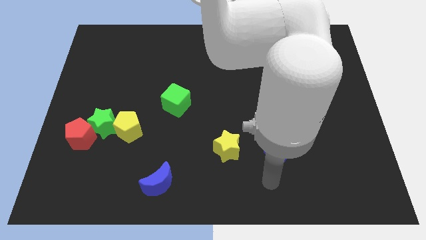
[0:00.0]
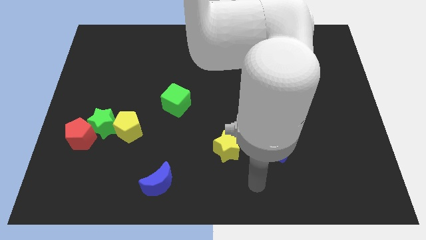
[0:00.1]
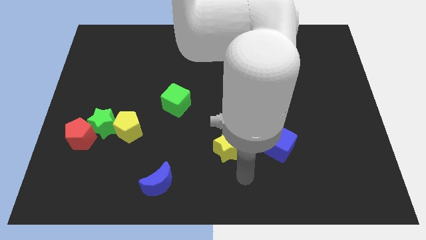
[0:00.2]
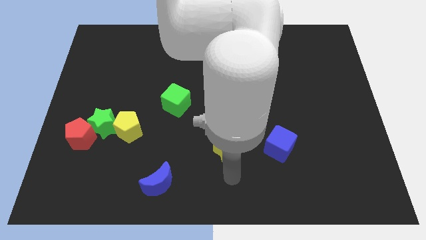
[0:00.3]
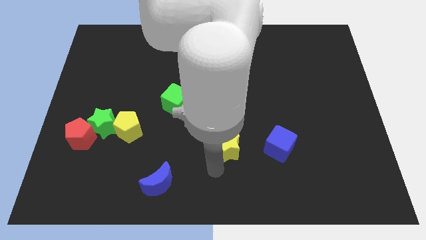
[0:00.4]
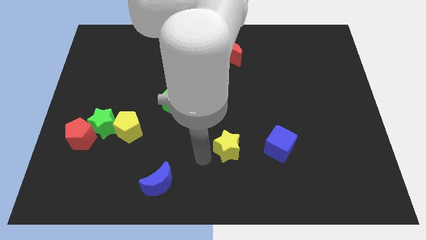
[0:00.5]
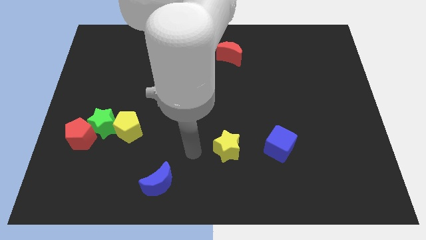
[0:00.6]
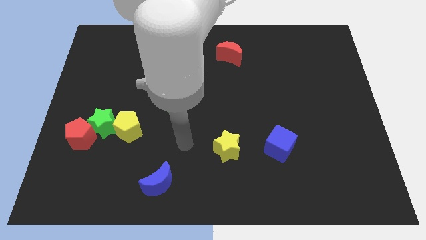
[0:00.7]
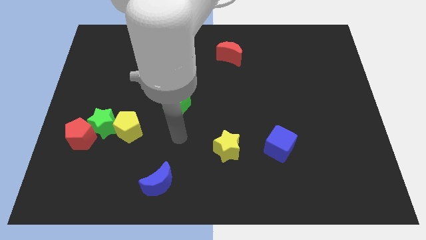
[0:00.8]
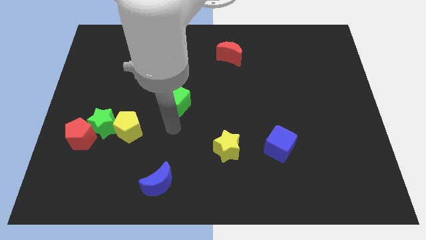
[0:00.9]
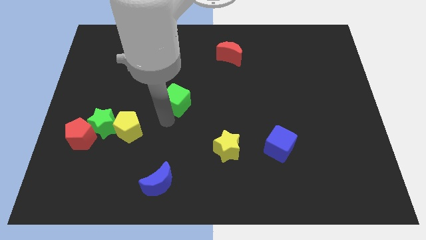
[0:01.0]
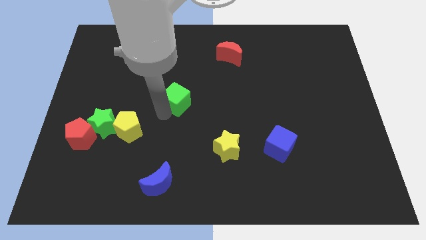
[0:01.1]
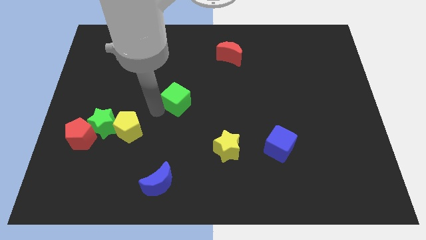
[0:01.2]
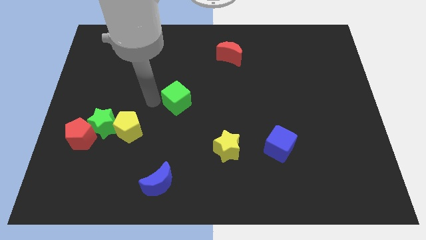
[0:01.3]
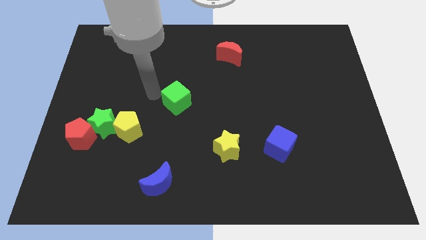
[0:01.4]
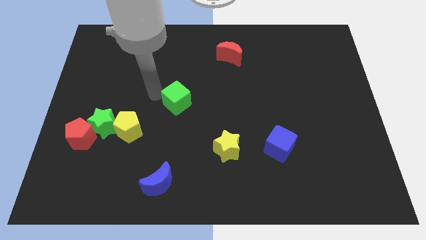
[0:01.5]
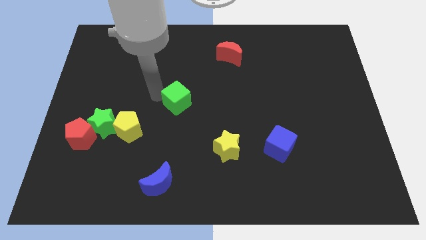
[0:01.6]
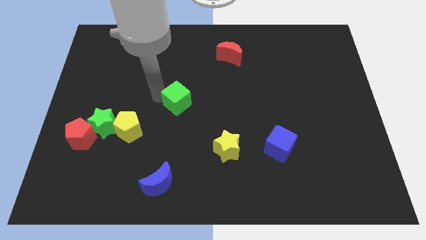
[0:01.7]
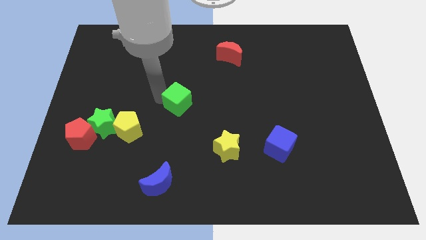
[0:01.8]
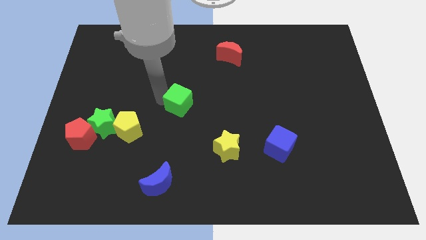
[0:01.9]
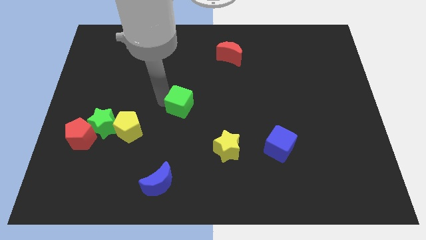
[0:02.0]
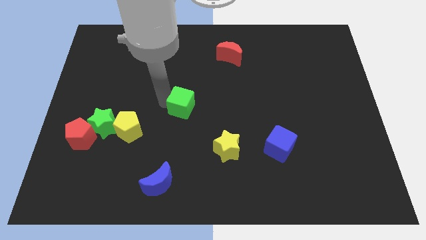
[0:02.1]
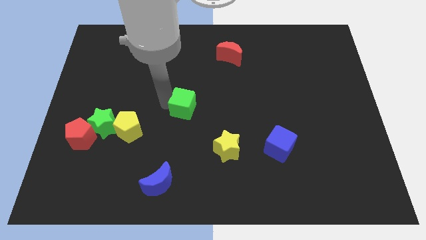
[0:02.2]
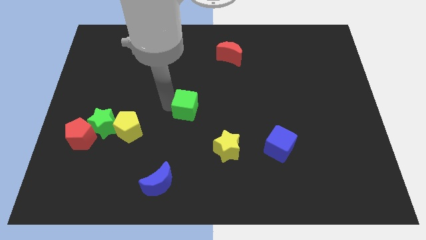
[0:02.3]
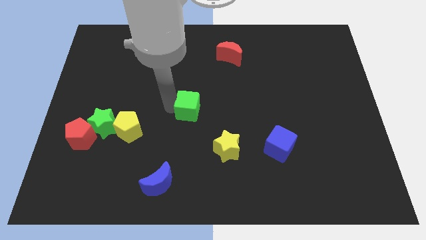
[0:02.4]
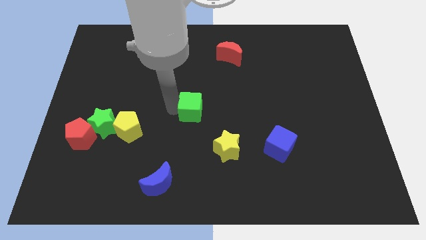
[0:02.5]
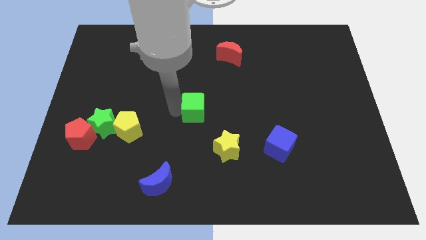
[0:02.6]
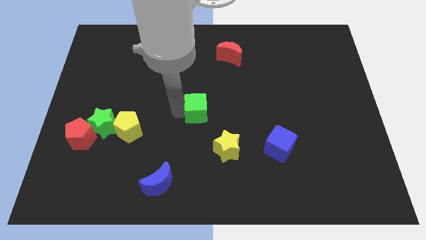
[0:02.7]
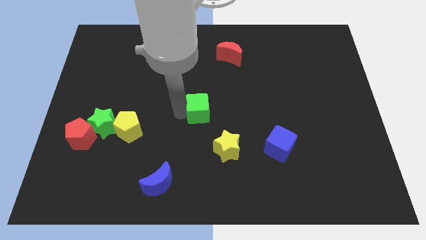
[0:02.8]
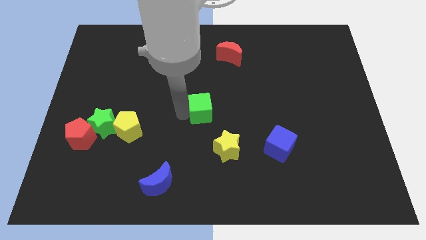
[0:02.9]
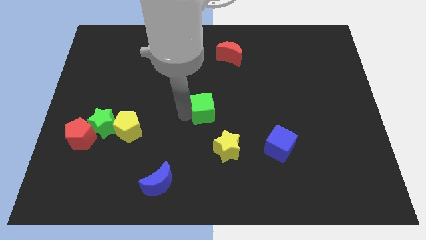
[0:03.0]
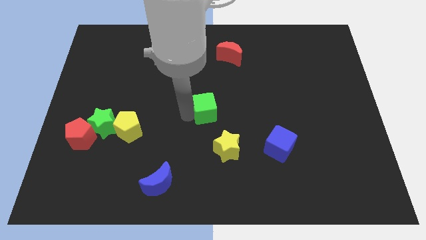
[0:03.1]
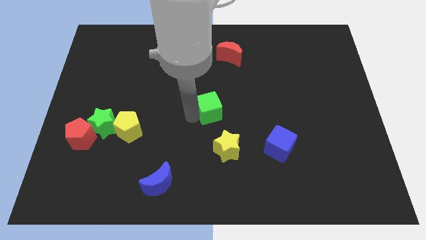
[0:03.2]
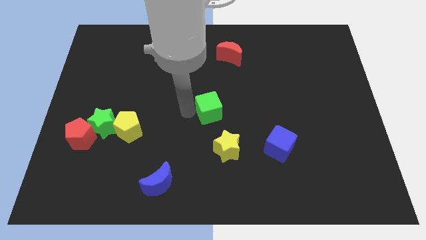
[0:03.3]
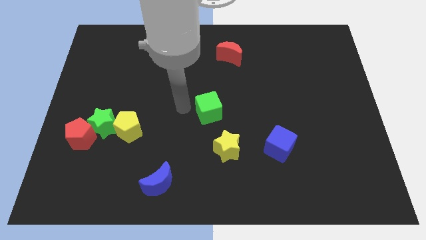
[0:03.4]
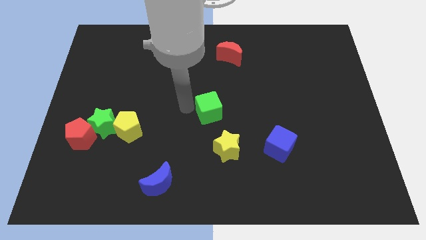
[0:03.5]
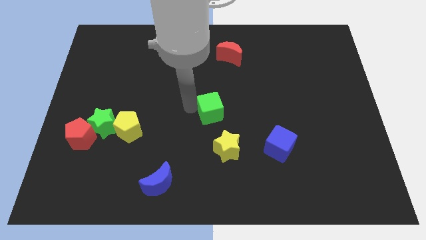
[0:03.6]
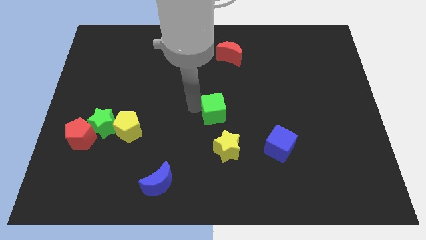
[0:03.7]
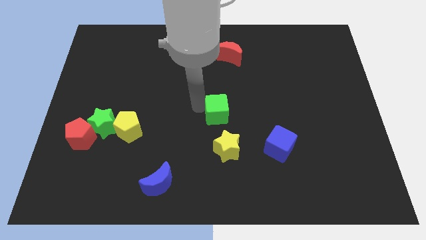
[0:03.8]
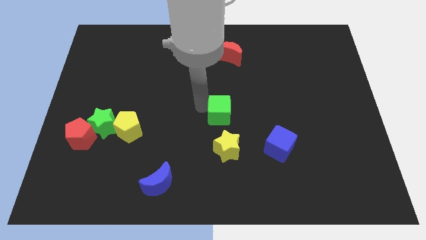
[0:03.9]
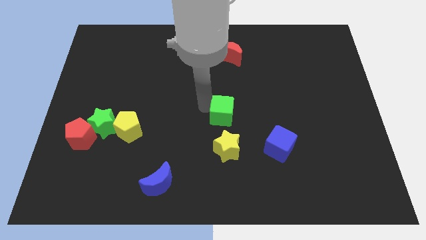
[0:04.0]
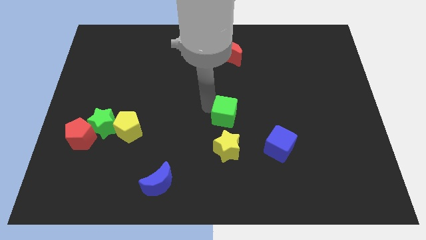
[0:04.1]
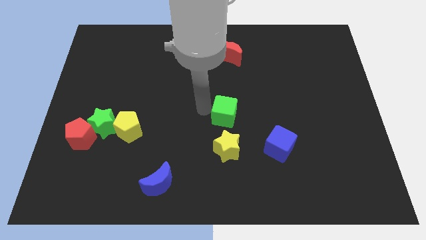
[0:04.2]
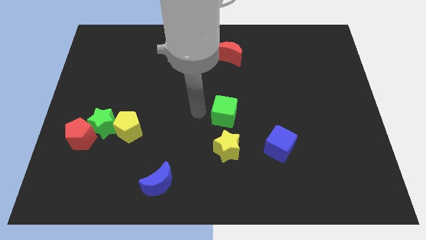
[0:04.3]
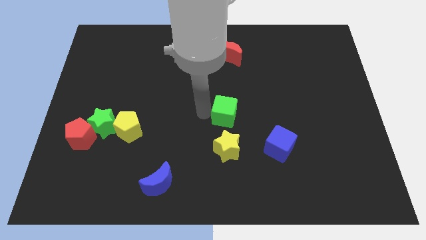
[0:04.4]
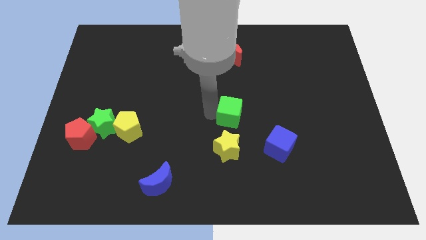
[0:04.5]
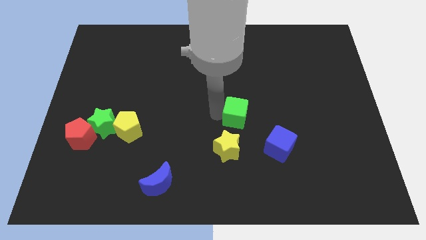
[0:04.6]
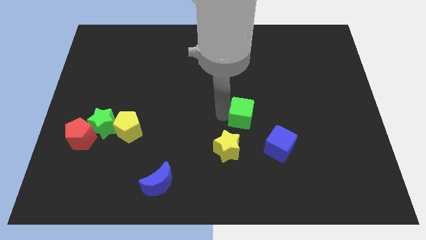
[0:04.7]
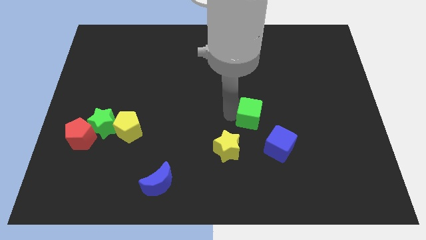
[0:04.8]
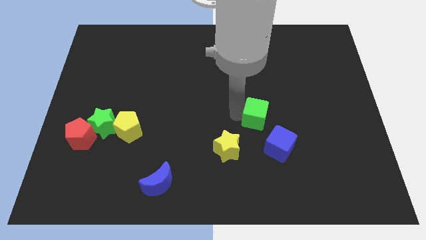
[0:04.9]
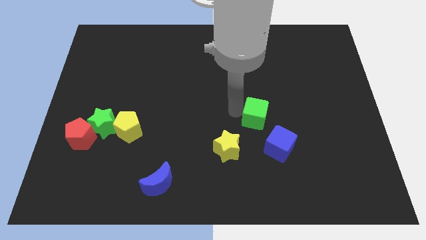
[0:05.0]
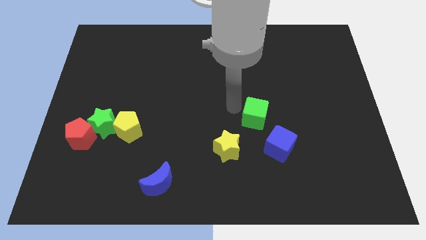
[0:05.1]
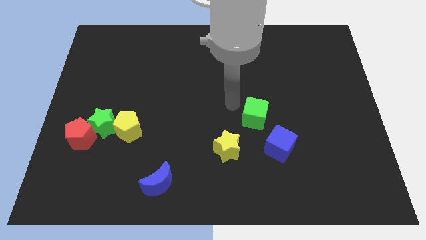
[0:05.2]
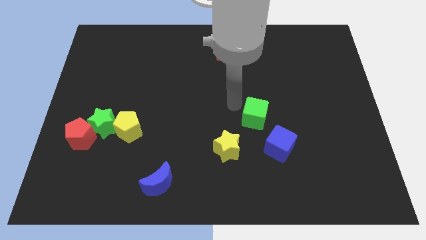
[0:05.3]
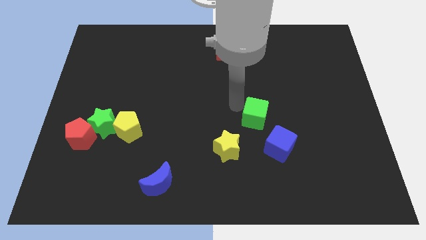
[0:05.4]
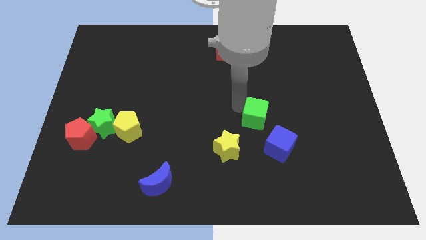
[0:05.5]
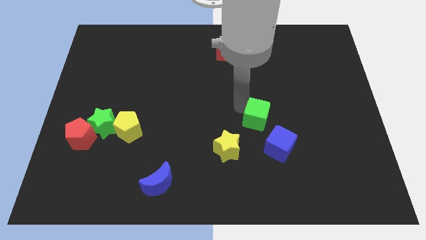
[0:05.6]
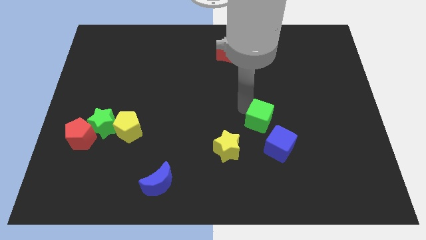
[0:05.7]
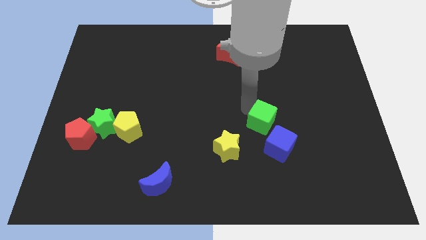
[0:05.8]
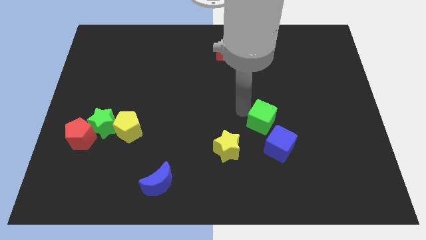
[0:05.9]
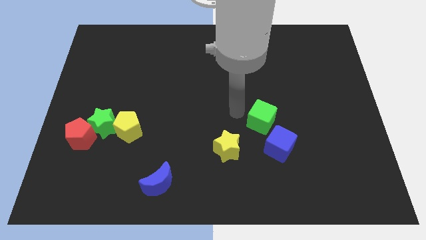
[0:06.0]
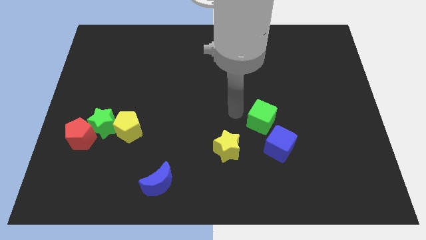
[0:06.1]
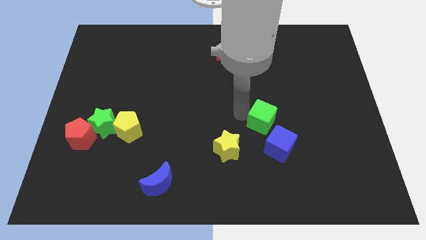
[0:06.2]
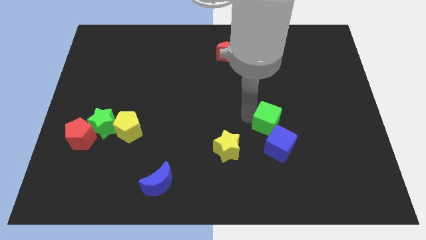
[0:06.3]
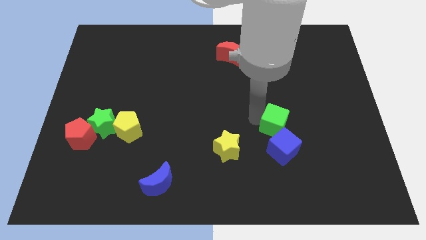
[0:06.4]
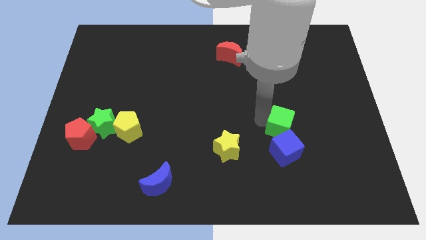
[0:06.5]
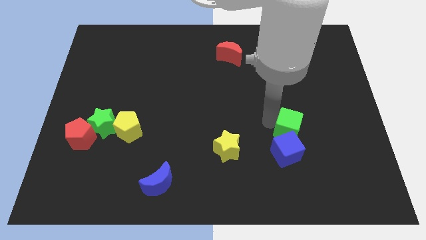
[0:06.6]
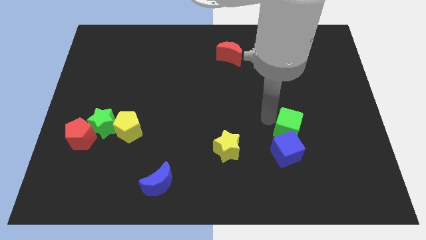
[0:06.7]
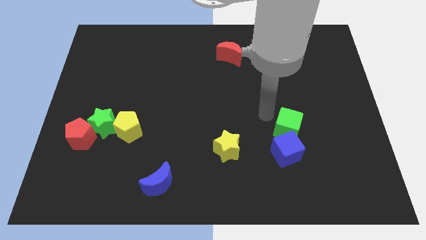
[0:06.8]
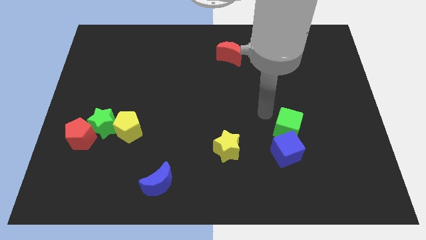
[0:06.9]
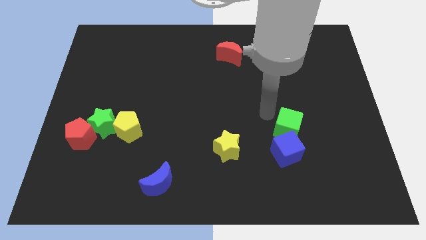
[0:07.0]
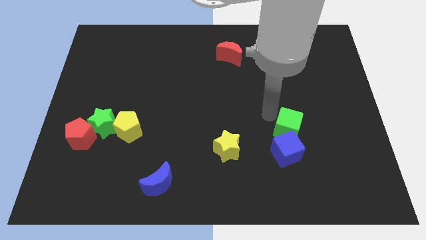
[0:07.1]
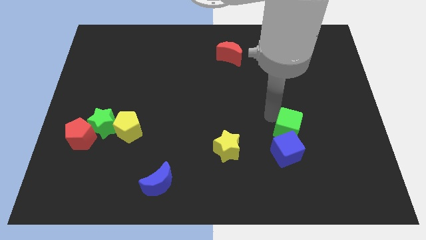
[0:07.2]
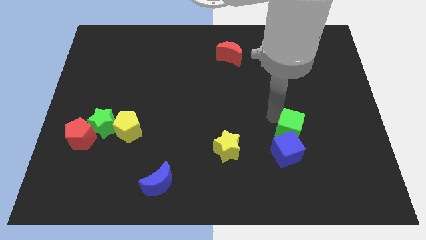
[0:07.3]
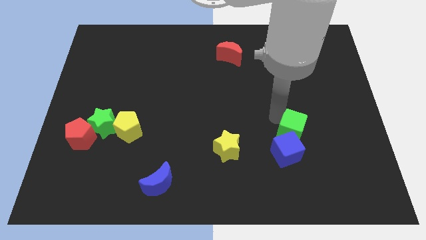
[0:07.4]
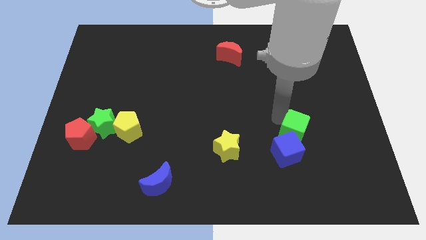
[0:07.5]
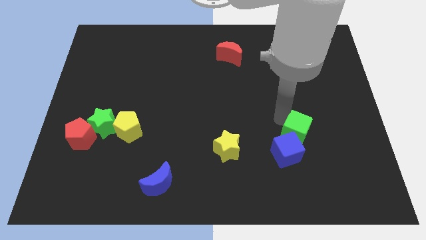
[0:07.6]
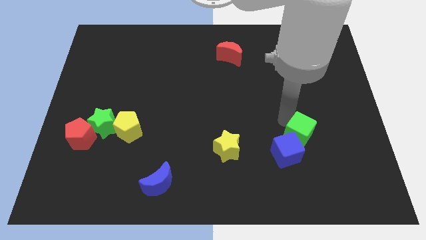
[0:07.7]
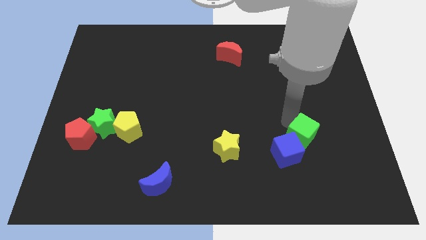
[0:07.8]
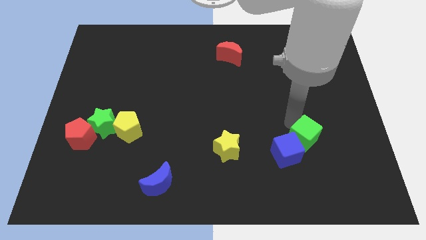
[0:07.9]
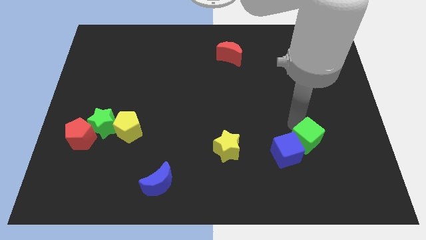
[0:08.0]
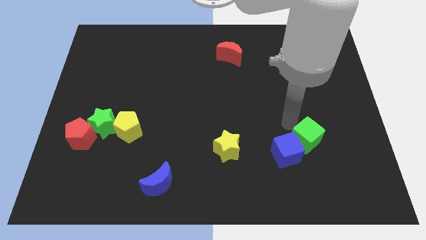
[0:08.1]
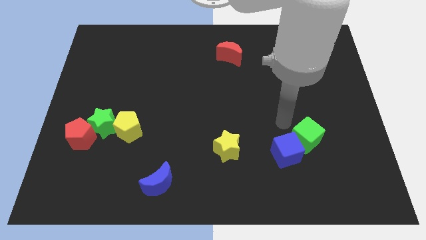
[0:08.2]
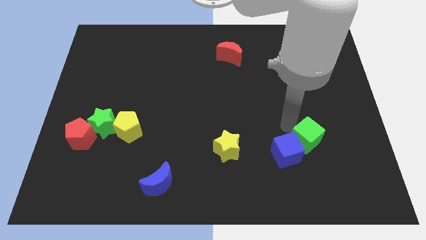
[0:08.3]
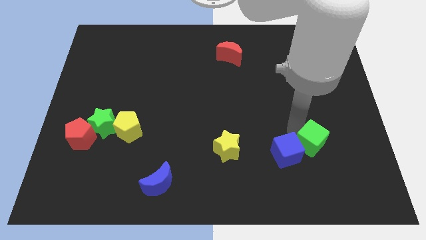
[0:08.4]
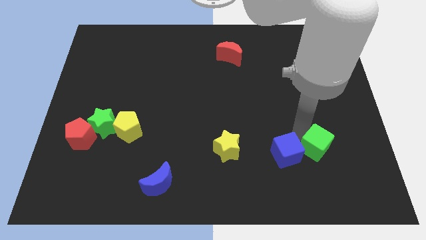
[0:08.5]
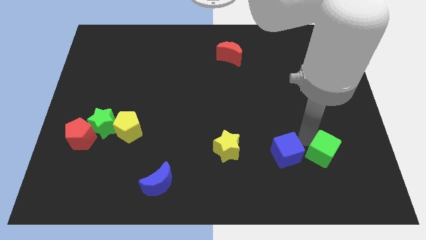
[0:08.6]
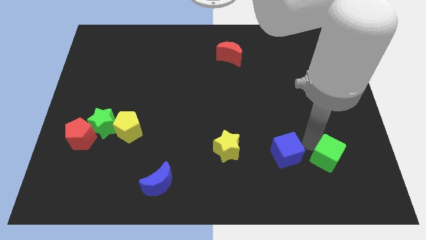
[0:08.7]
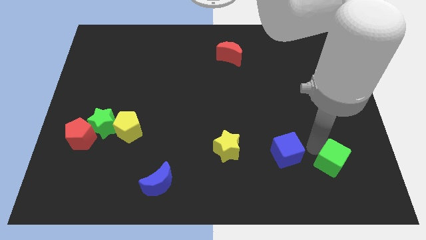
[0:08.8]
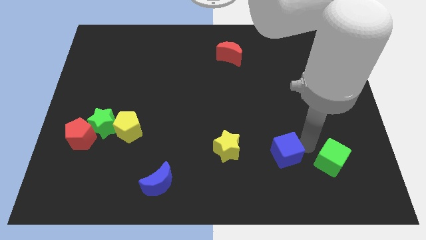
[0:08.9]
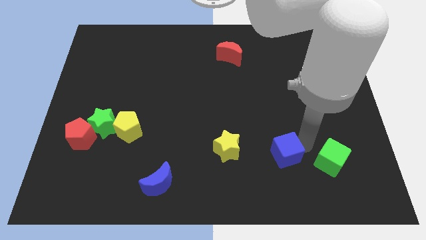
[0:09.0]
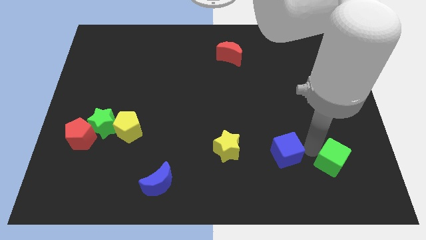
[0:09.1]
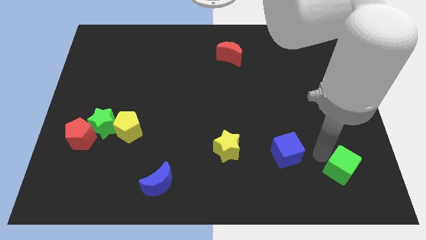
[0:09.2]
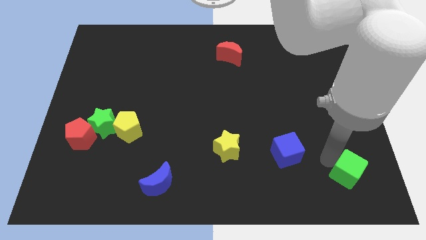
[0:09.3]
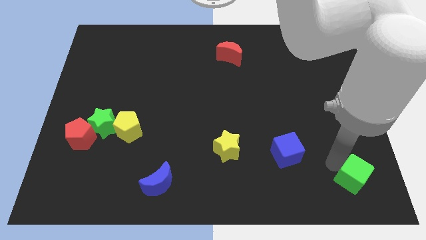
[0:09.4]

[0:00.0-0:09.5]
put the green cube to the bottom right of the board
